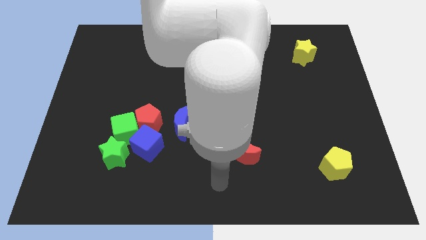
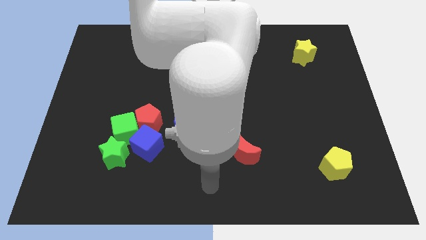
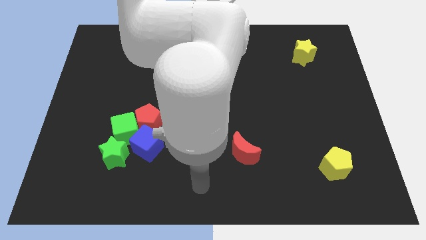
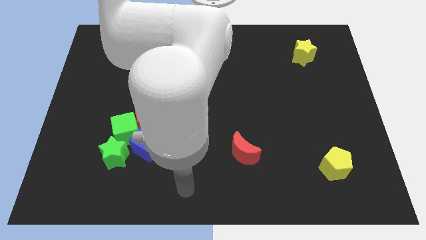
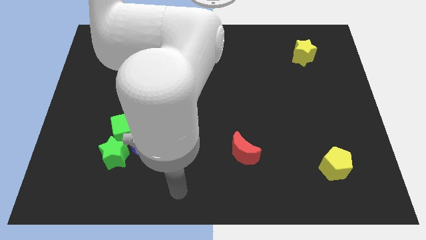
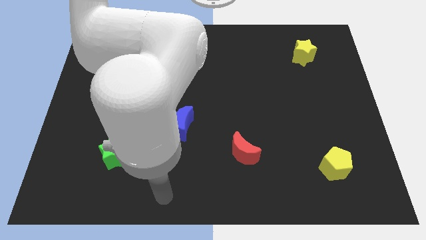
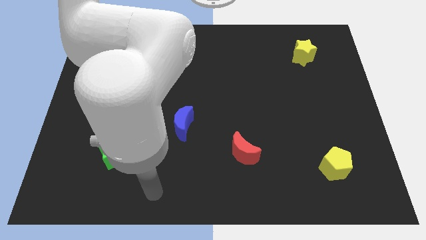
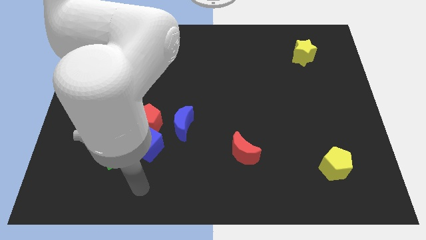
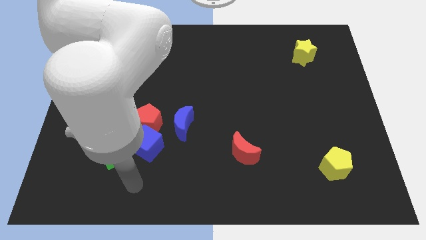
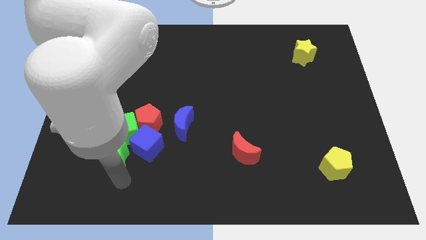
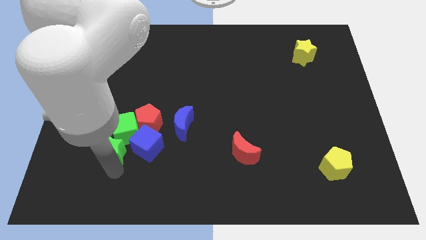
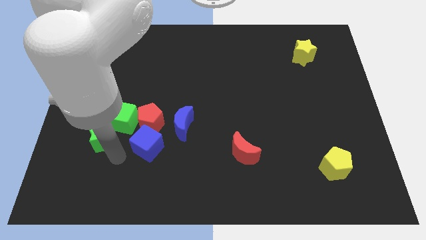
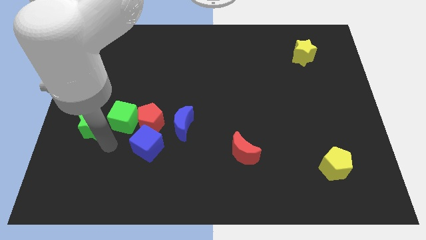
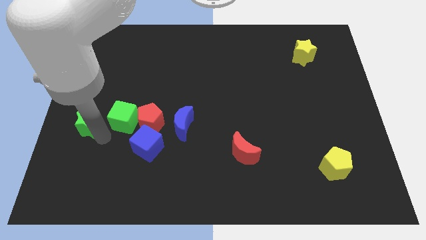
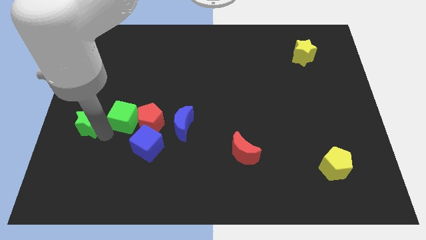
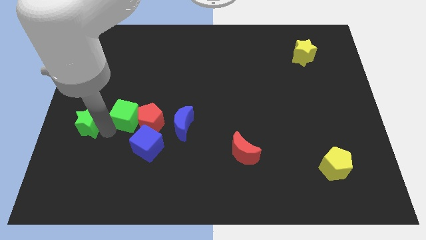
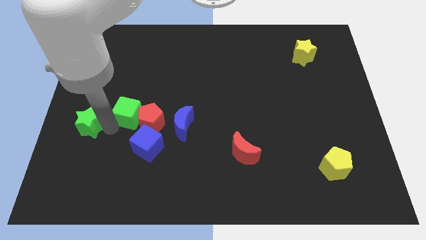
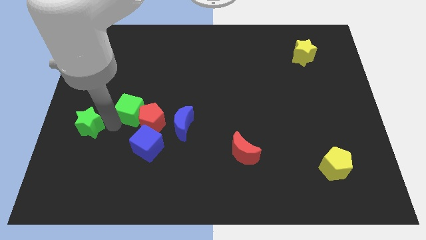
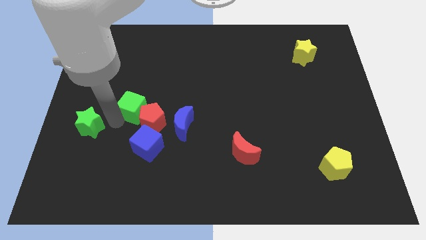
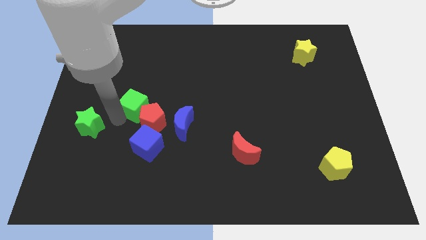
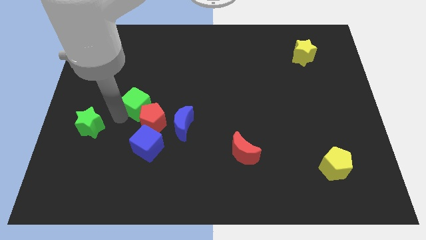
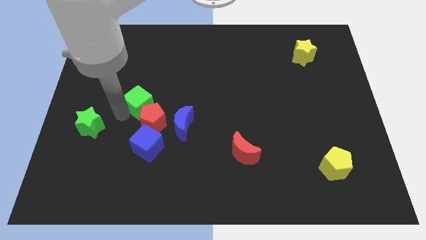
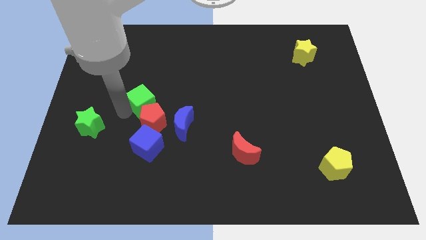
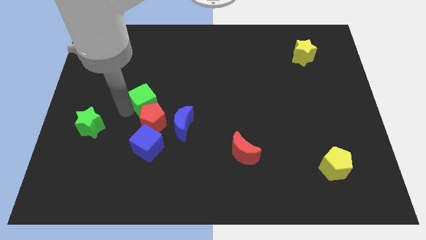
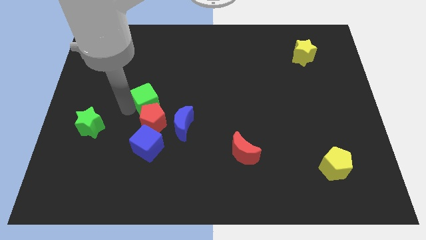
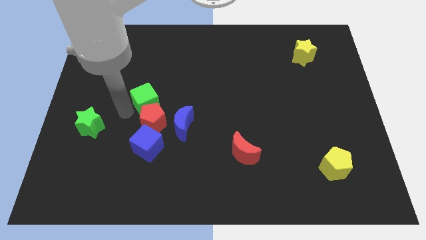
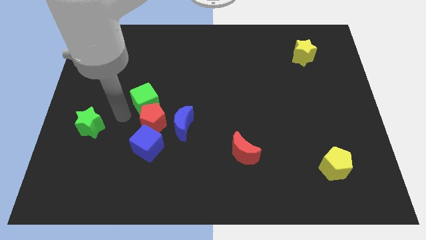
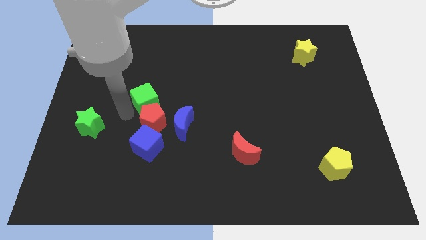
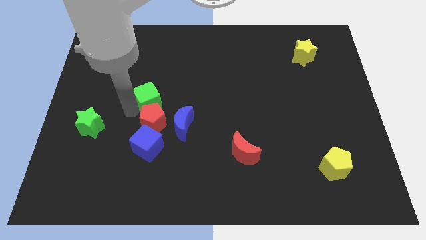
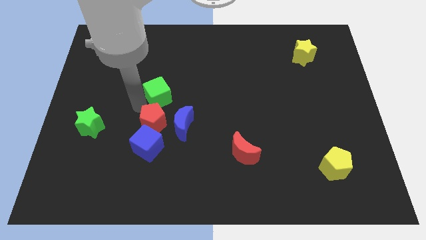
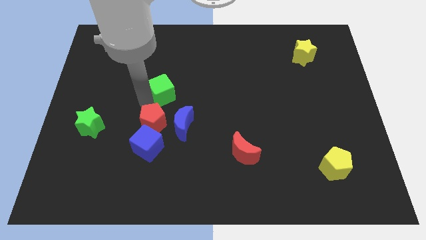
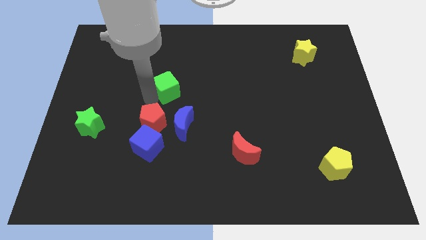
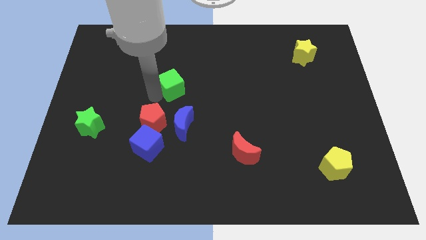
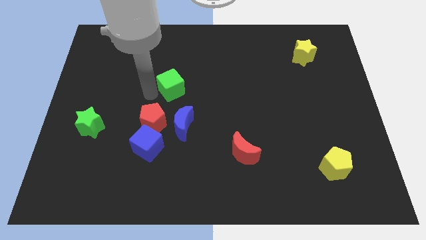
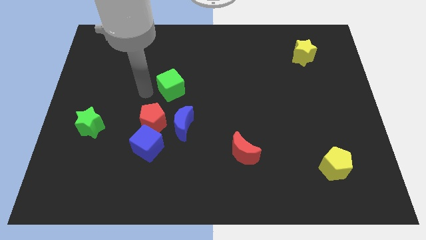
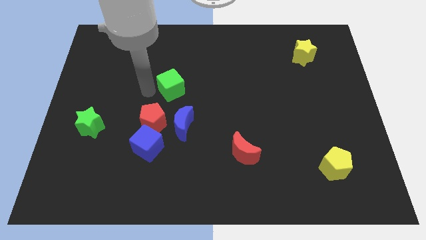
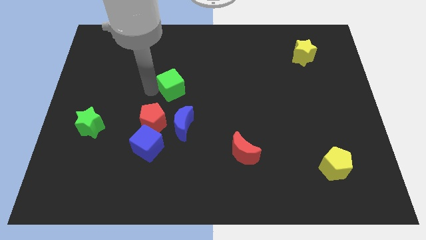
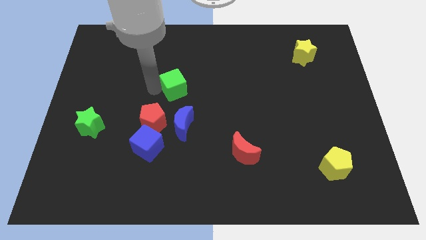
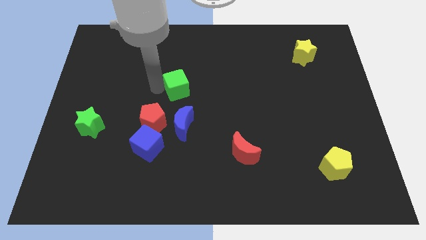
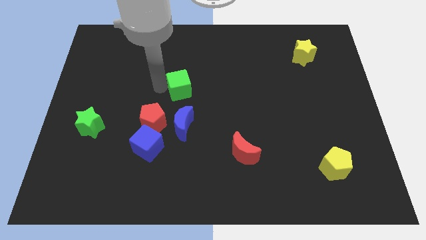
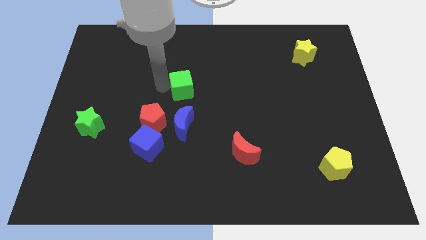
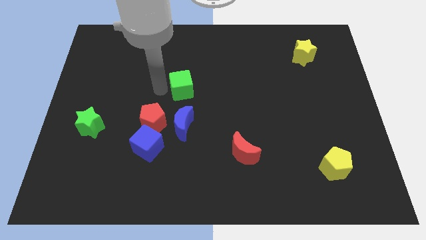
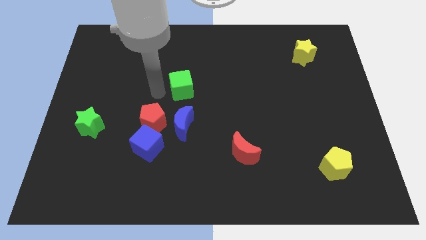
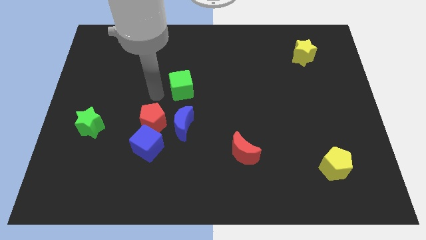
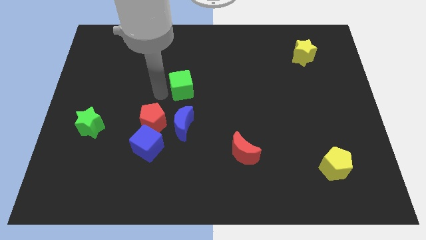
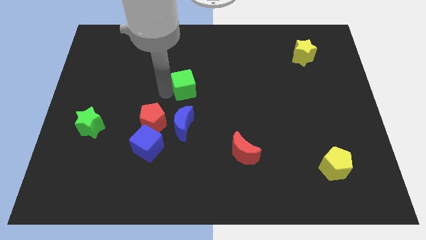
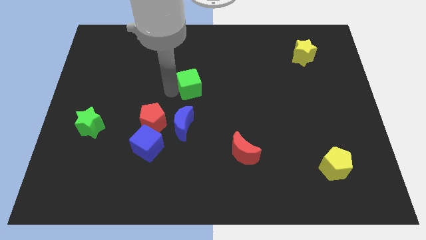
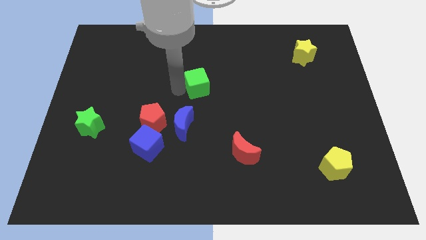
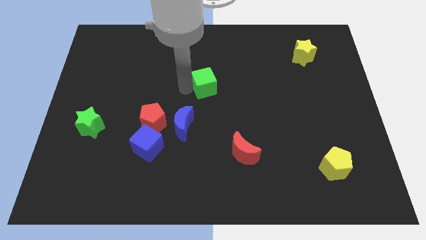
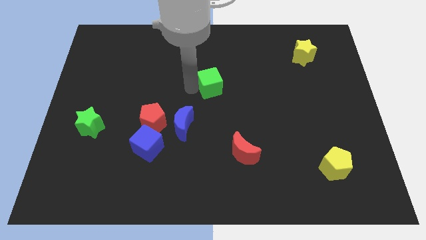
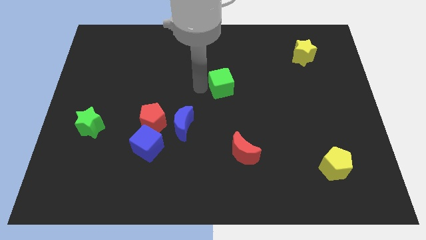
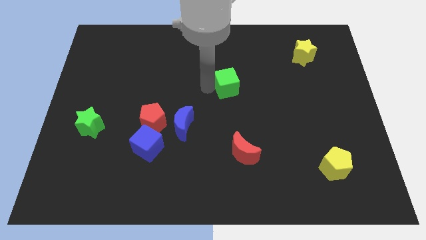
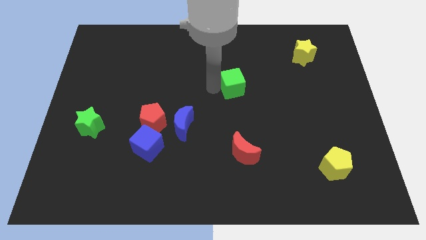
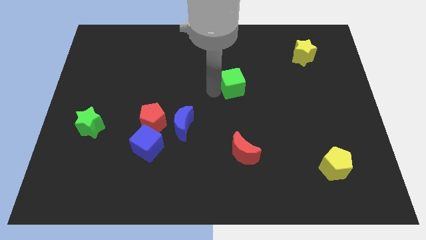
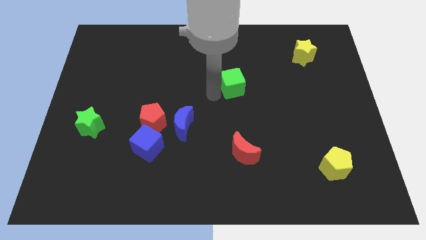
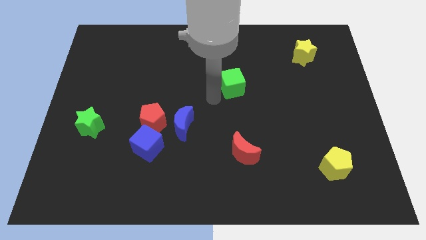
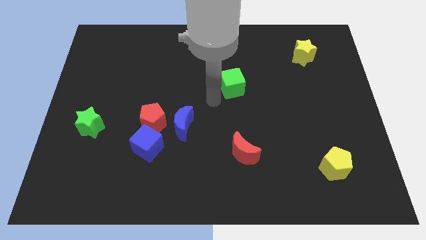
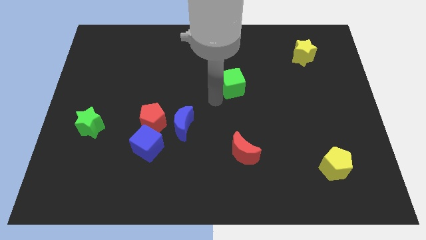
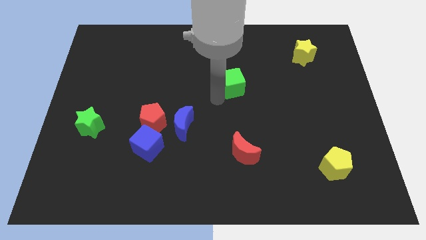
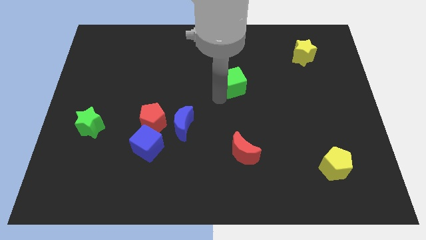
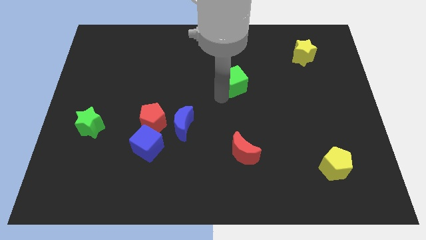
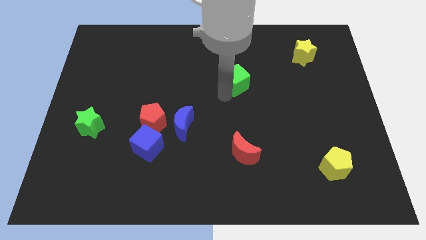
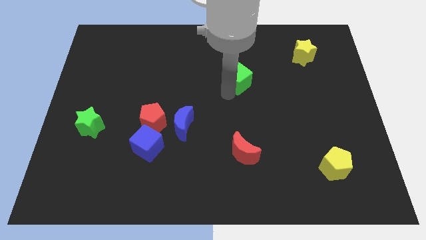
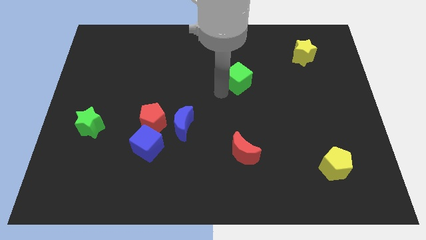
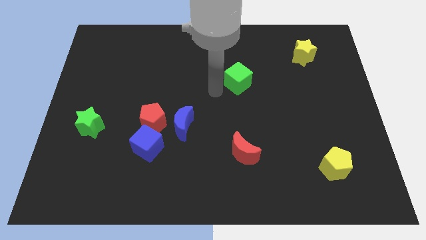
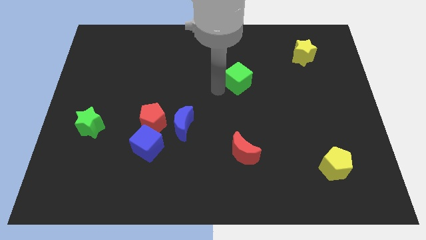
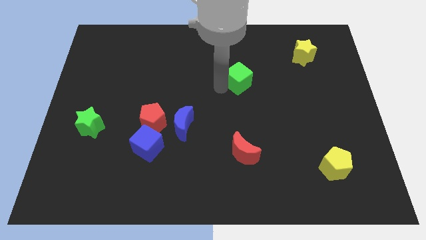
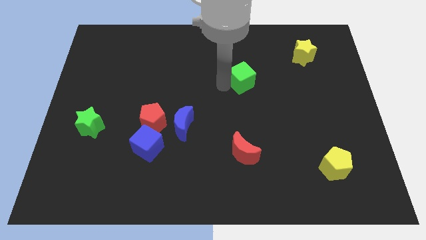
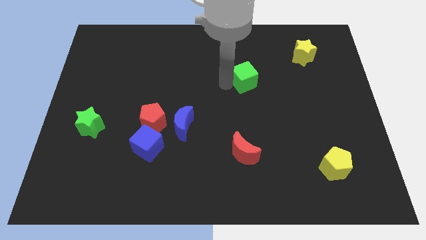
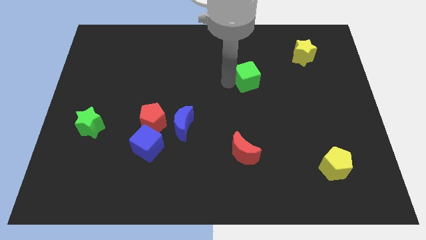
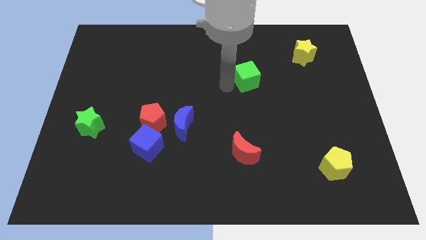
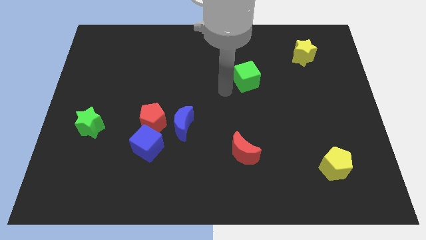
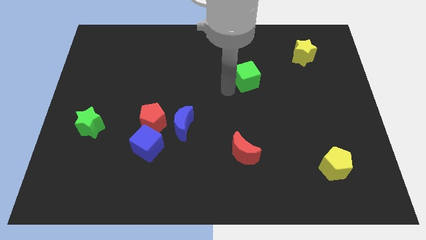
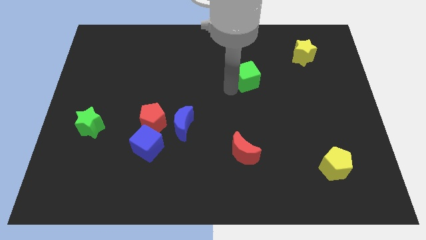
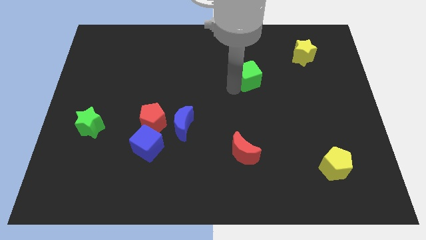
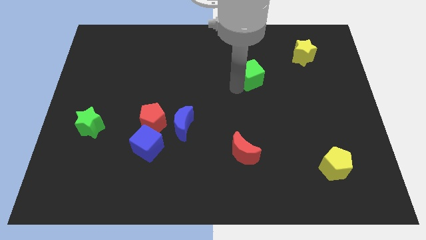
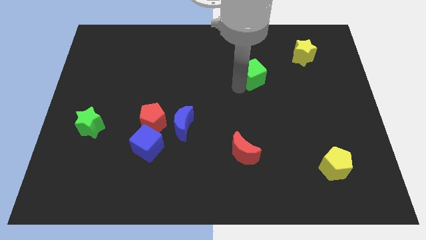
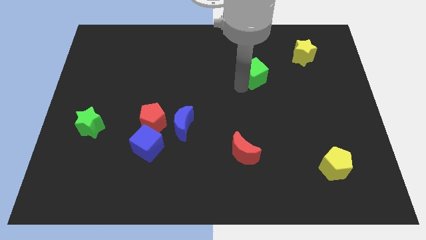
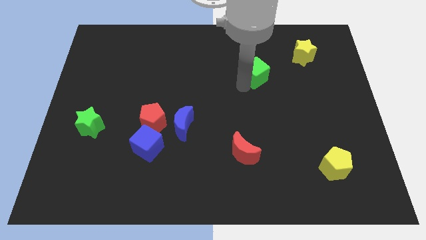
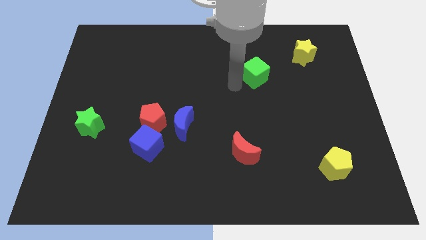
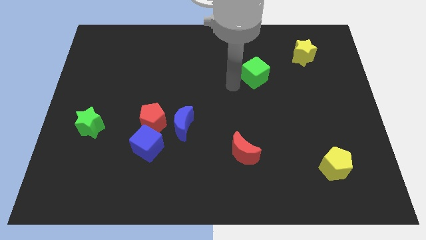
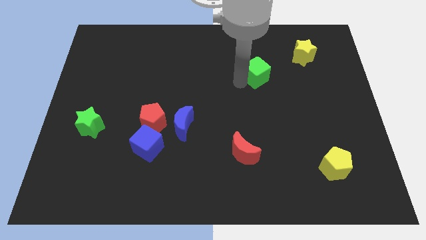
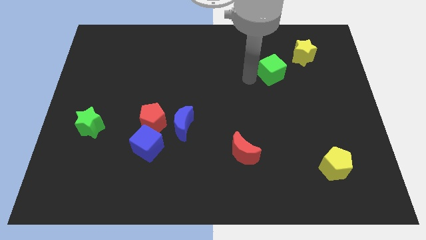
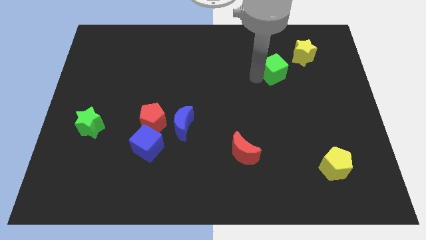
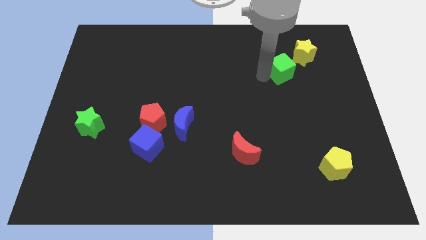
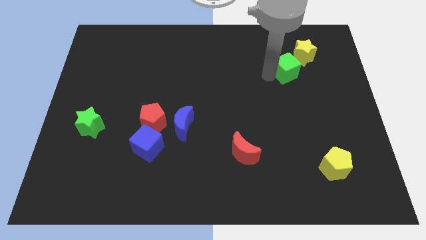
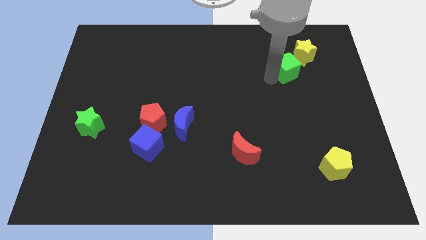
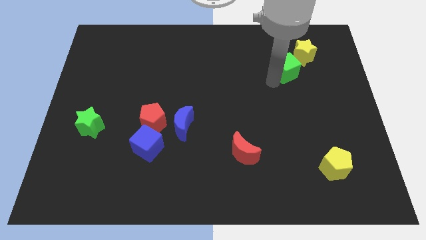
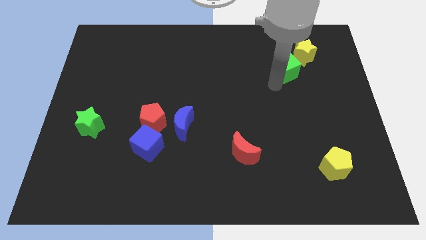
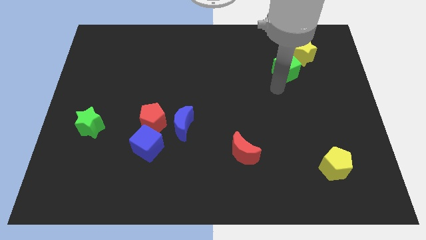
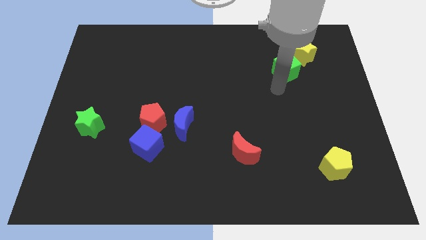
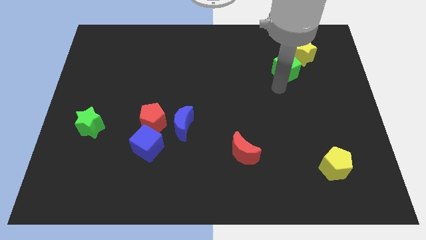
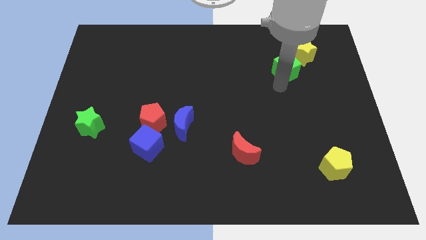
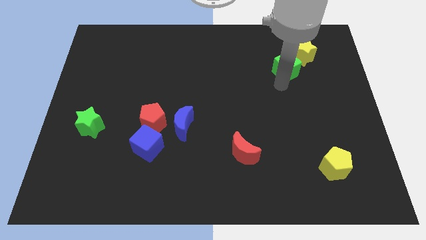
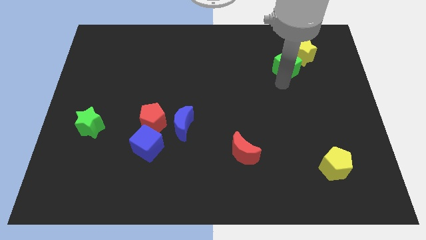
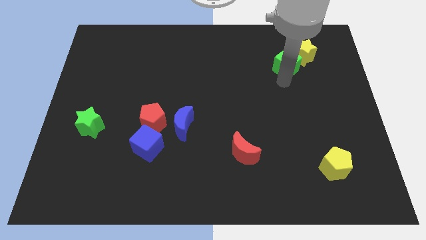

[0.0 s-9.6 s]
move the green cube close to the yellow star
